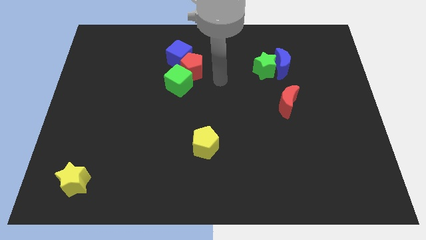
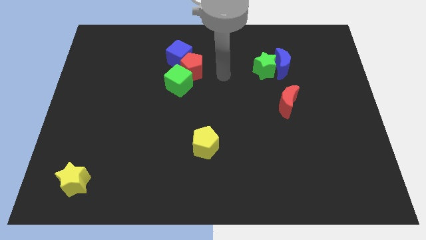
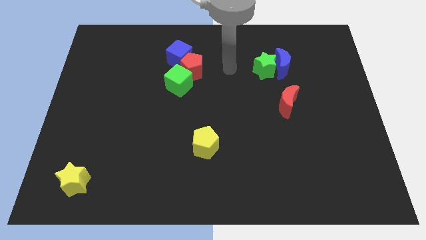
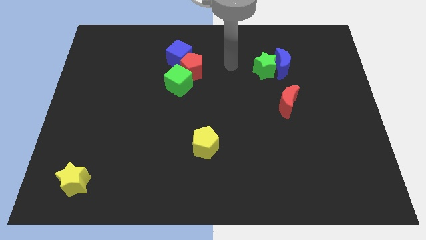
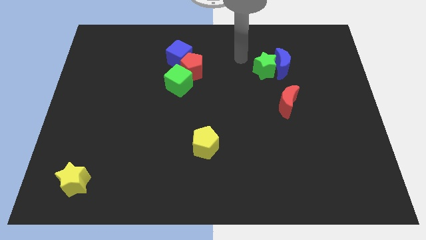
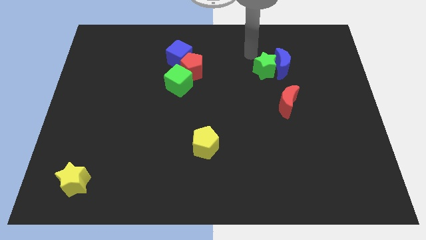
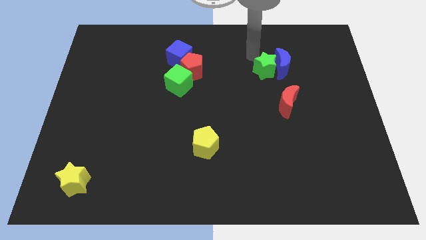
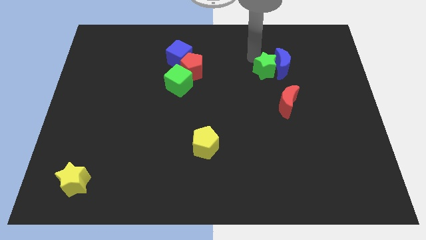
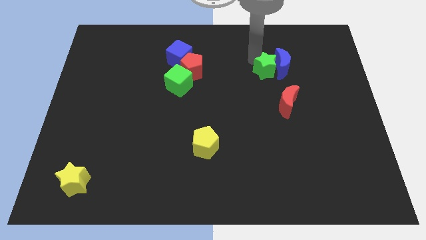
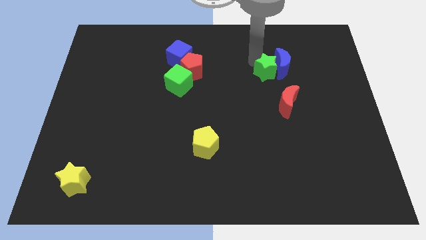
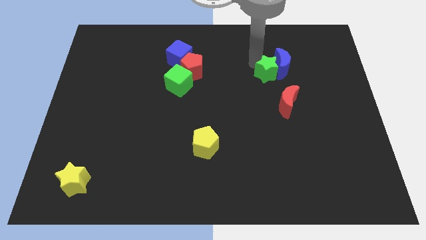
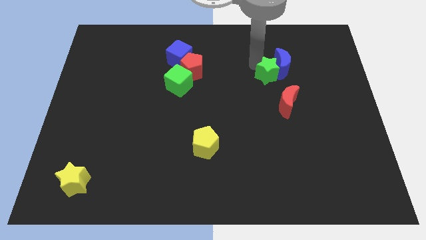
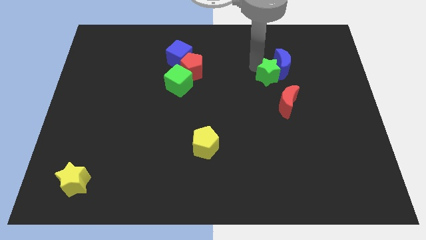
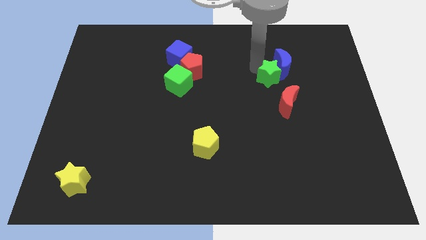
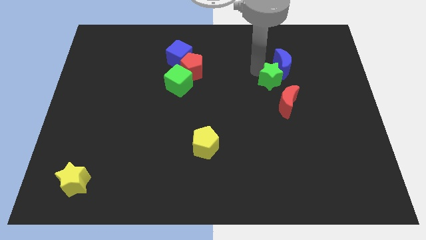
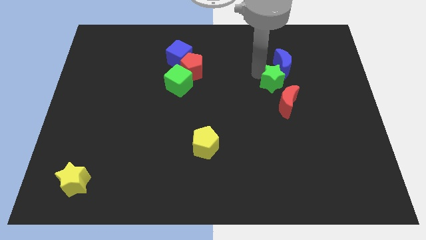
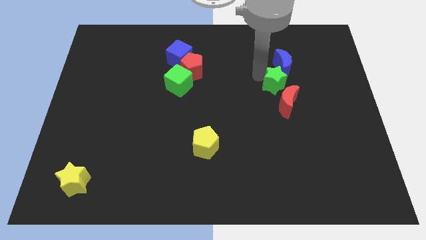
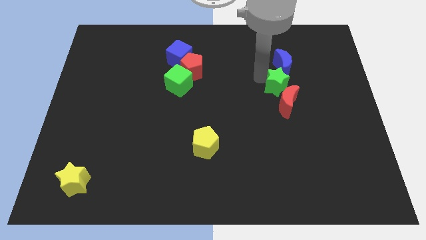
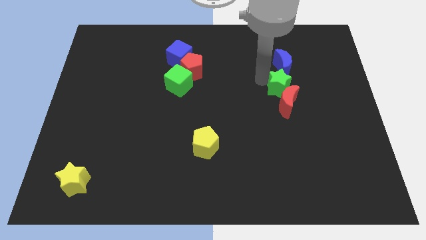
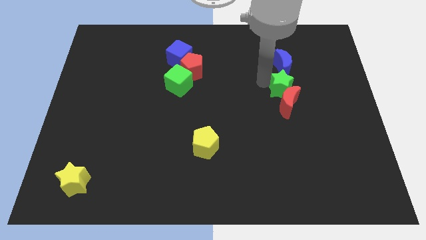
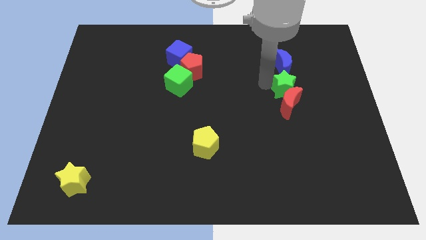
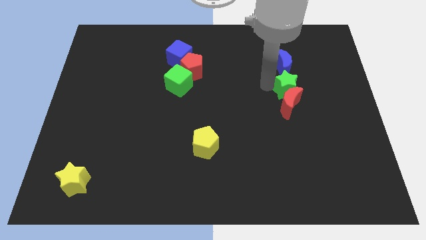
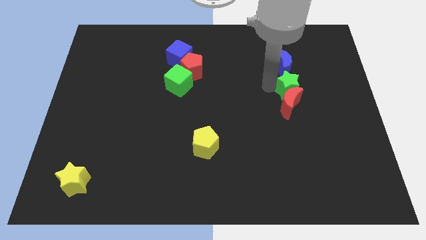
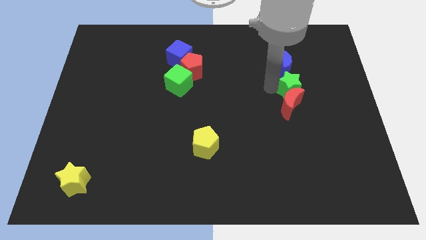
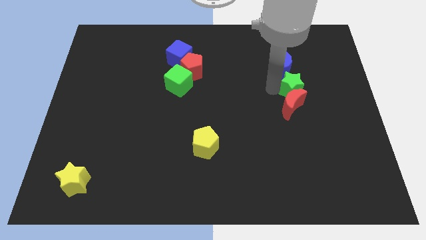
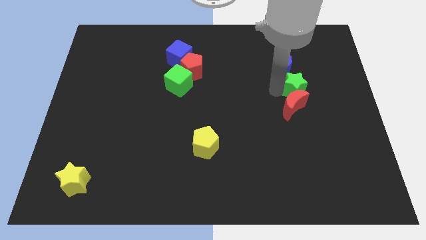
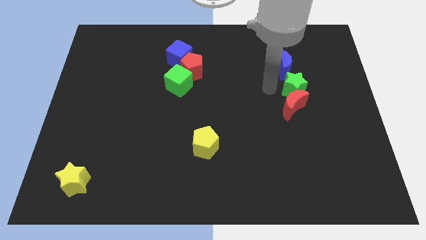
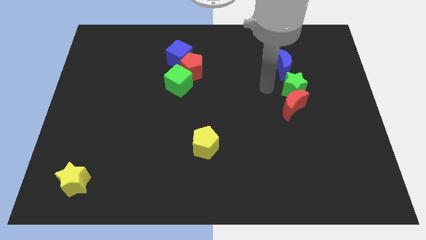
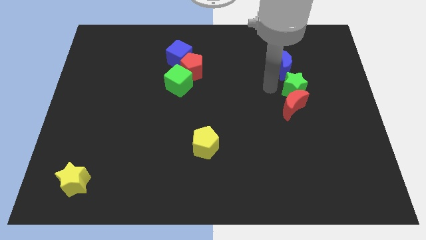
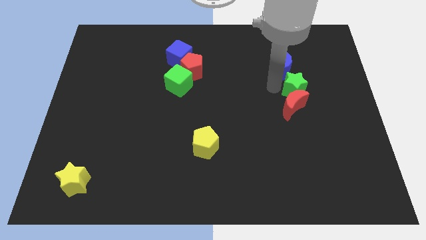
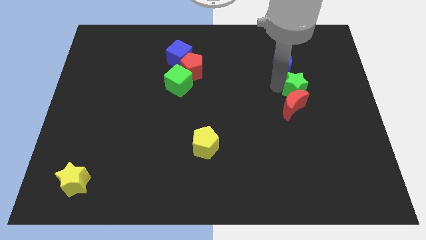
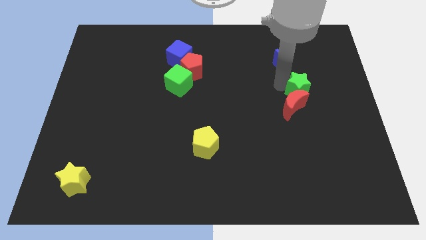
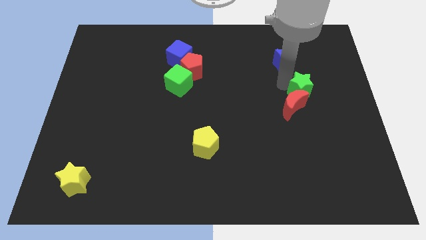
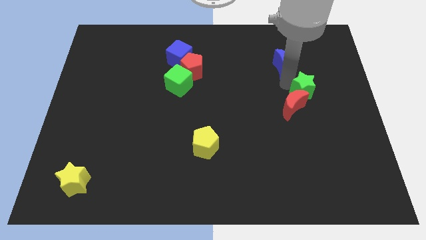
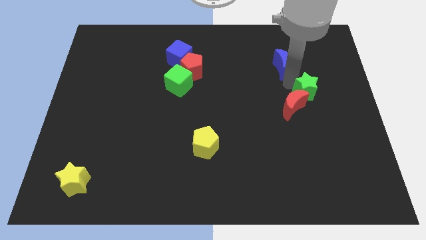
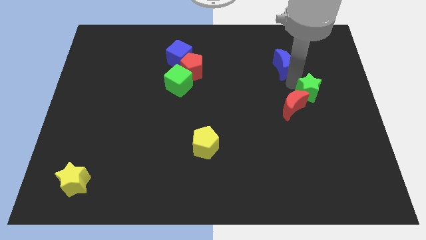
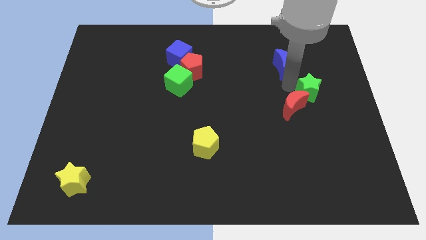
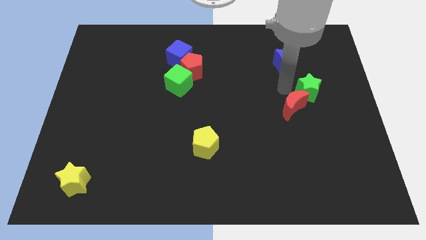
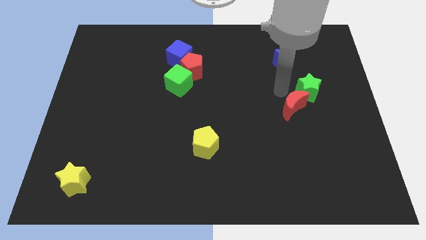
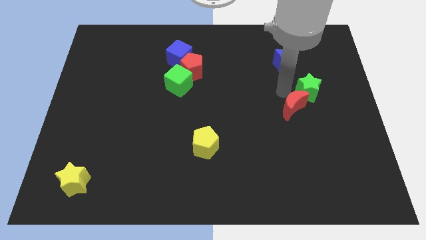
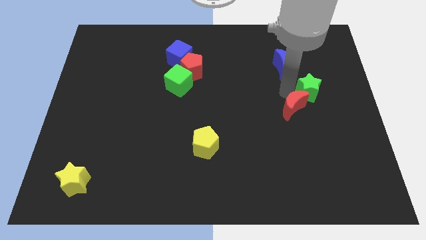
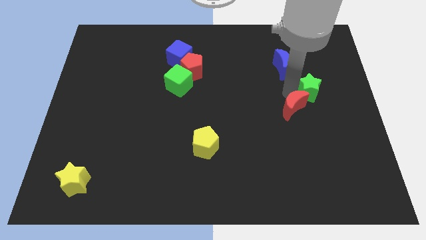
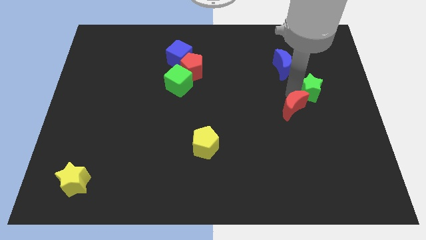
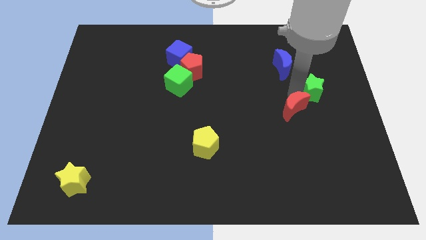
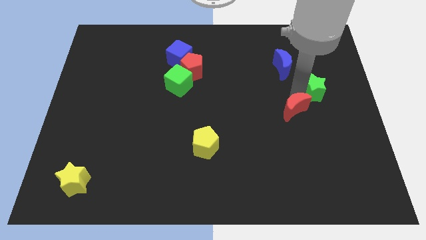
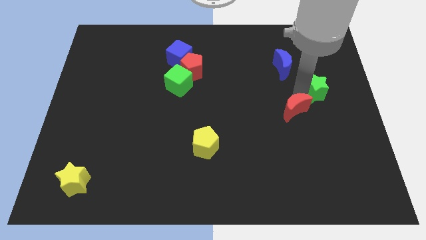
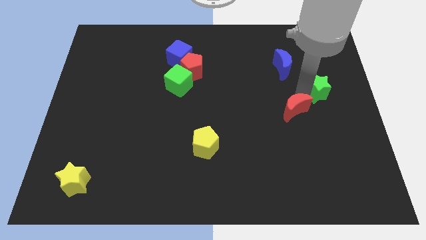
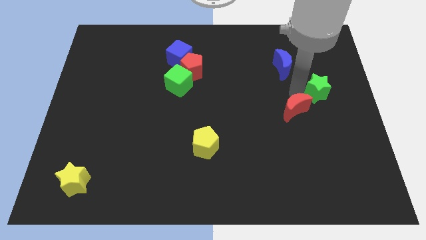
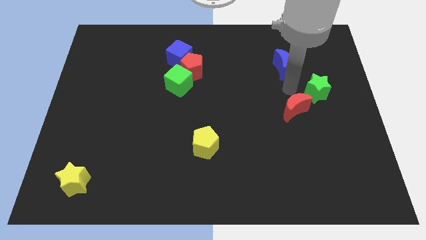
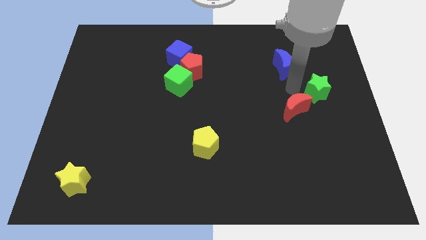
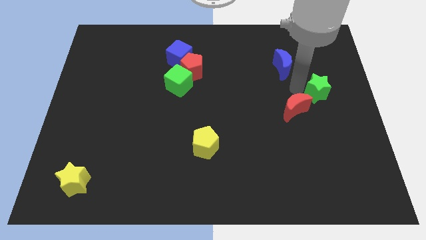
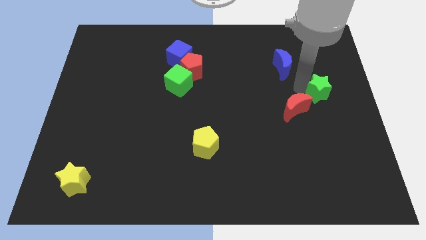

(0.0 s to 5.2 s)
push the green star to the right side
